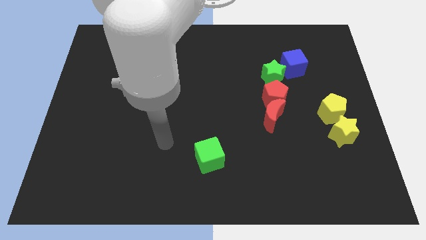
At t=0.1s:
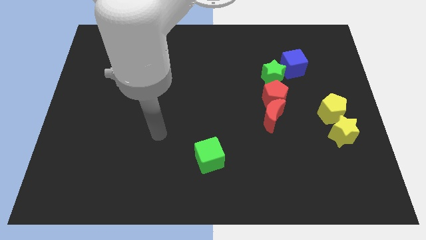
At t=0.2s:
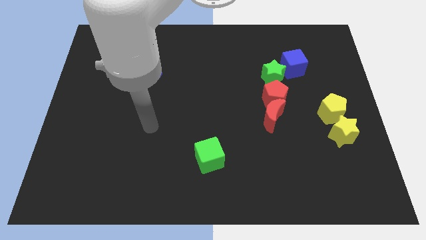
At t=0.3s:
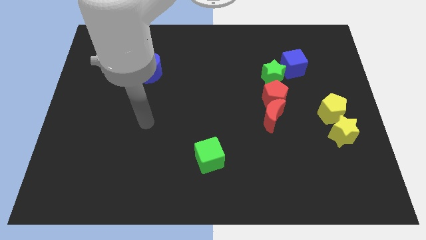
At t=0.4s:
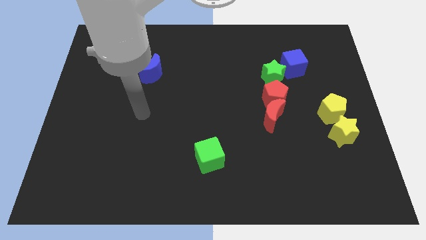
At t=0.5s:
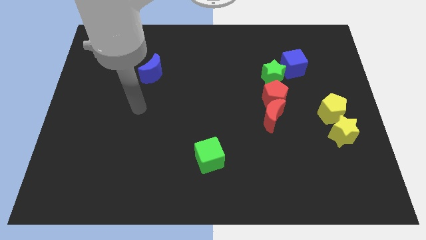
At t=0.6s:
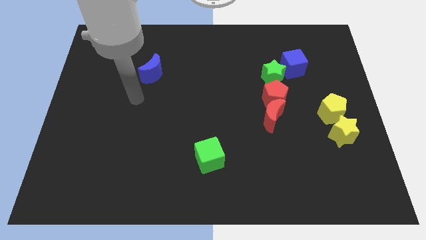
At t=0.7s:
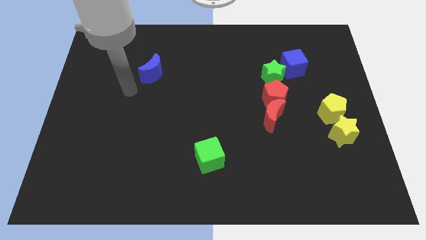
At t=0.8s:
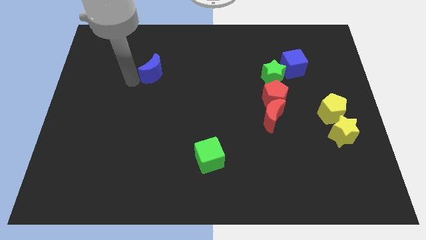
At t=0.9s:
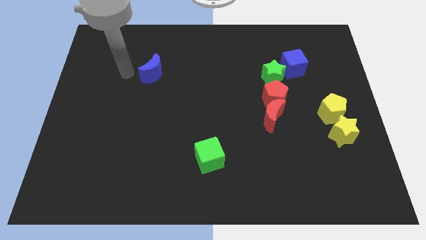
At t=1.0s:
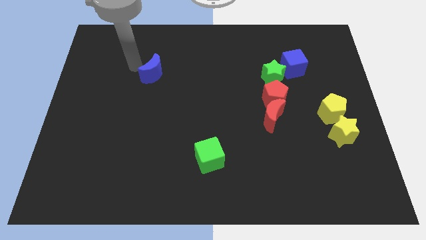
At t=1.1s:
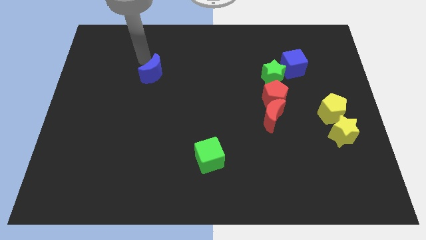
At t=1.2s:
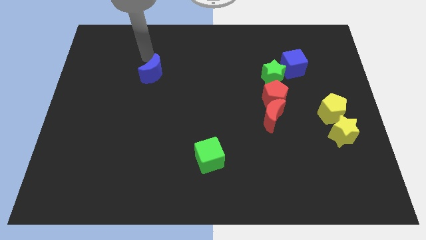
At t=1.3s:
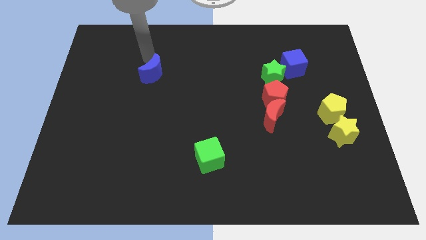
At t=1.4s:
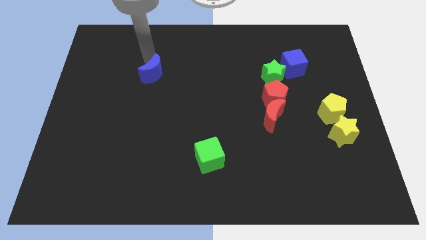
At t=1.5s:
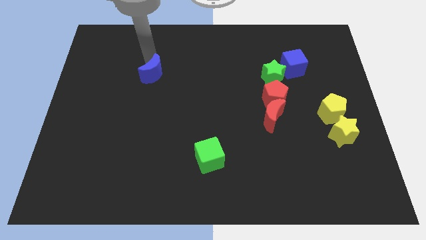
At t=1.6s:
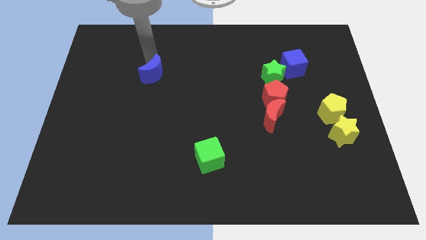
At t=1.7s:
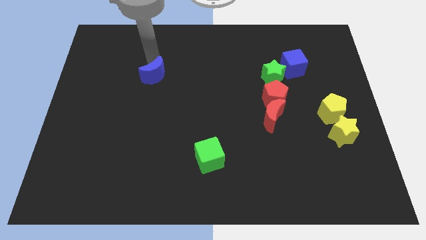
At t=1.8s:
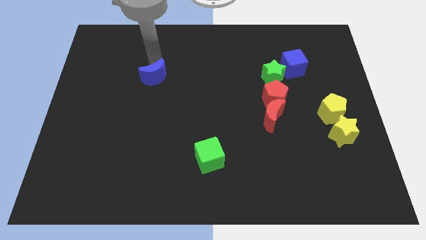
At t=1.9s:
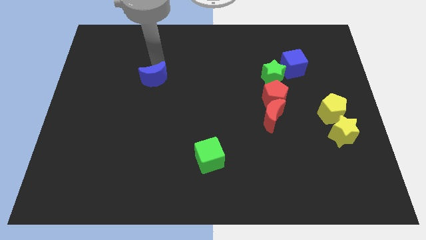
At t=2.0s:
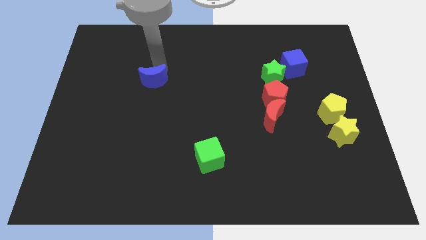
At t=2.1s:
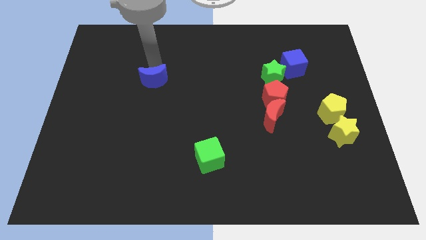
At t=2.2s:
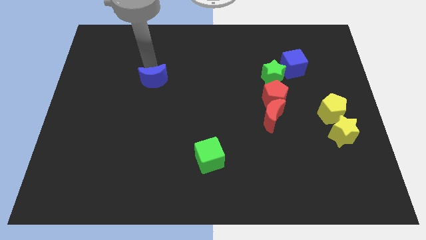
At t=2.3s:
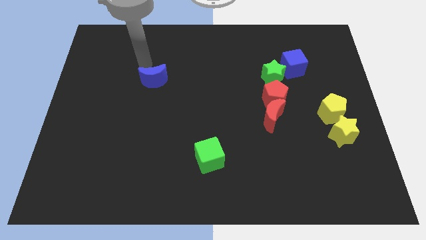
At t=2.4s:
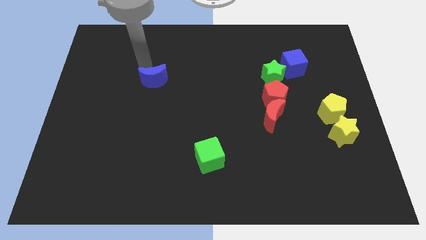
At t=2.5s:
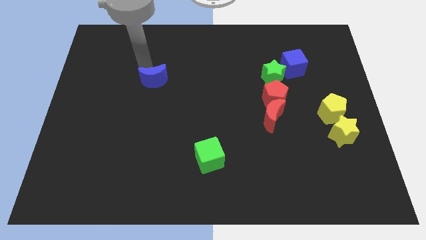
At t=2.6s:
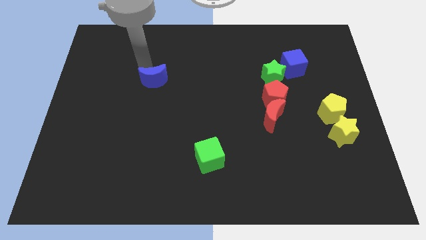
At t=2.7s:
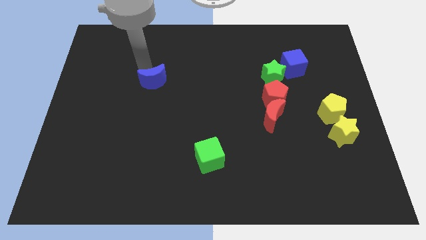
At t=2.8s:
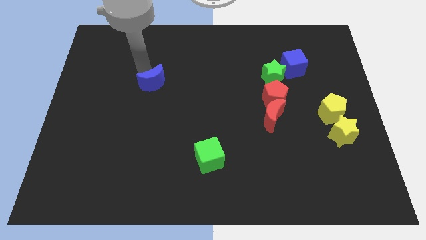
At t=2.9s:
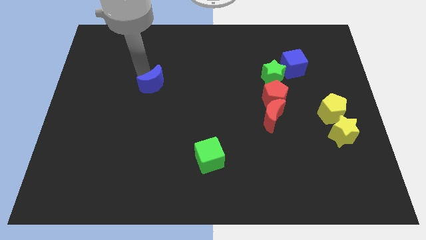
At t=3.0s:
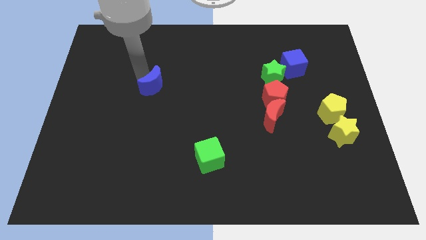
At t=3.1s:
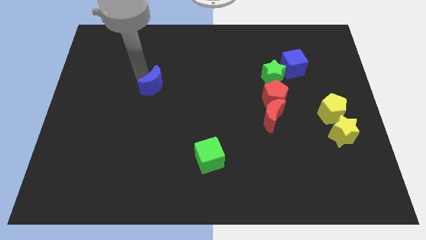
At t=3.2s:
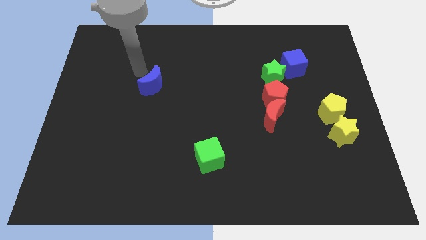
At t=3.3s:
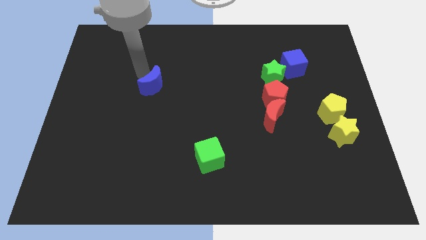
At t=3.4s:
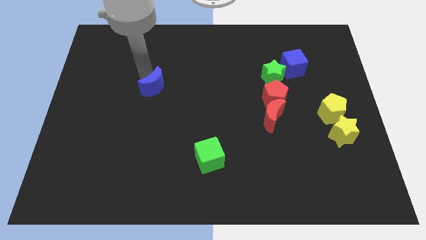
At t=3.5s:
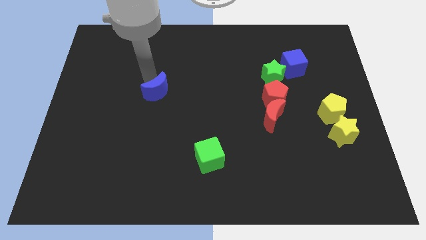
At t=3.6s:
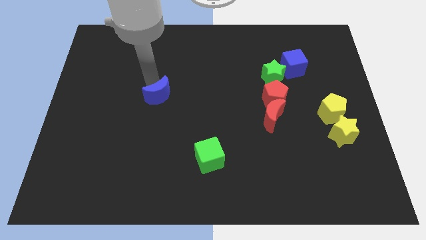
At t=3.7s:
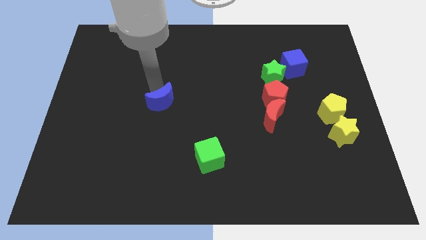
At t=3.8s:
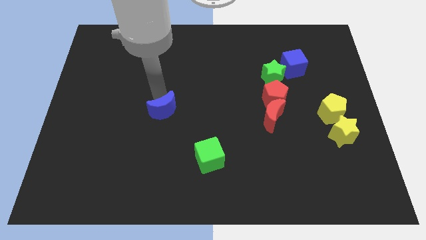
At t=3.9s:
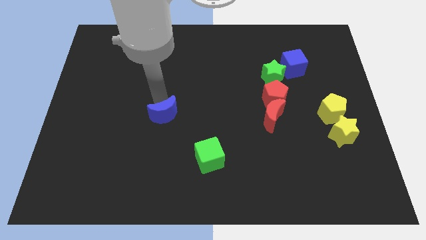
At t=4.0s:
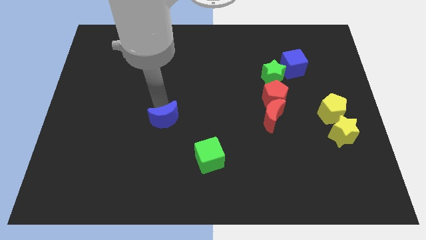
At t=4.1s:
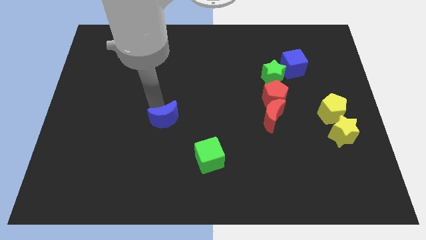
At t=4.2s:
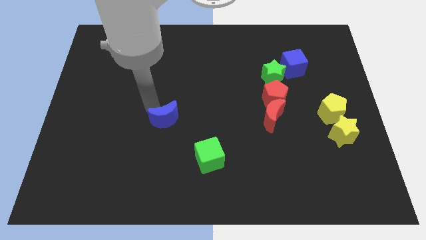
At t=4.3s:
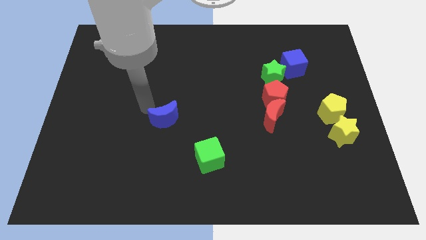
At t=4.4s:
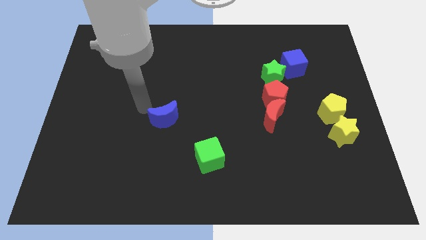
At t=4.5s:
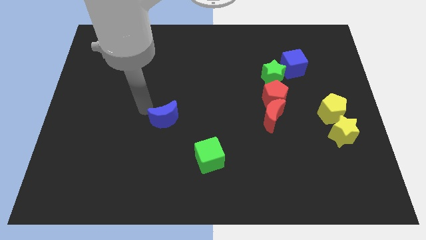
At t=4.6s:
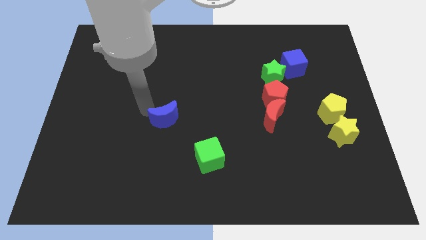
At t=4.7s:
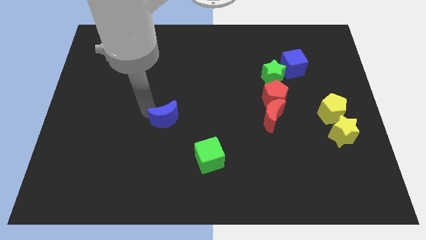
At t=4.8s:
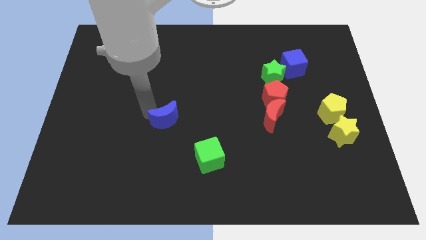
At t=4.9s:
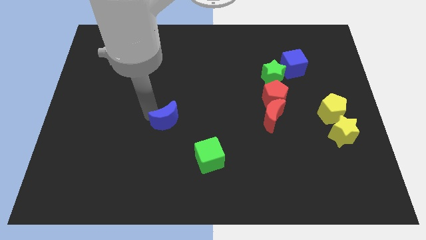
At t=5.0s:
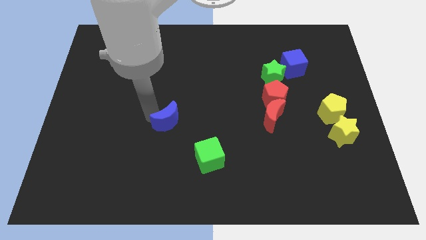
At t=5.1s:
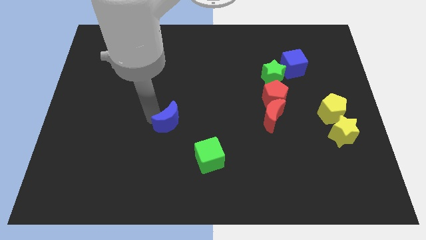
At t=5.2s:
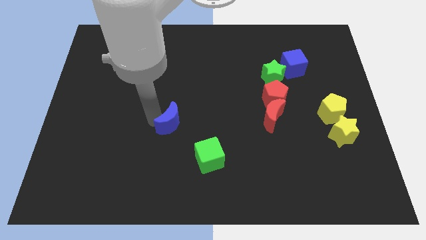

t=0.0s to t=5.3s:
move the blue moon diagonally up and to the left of the green cube

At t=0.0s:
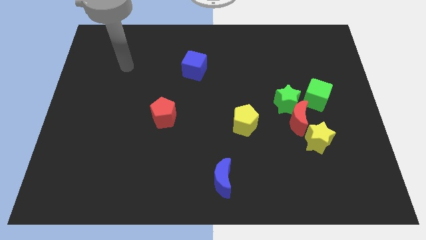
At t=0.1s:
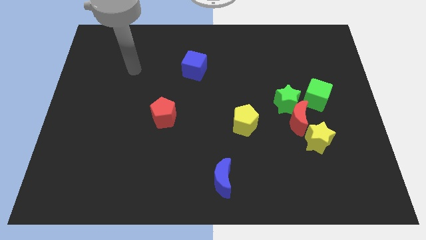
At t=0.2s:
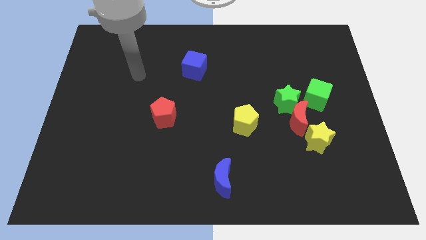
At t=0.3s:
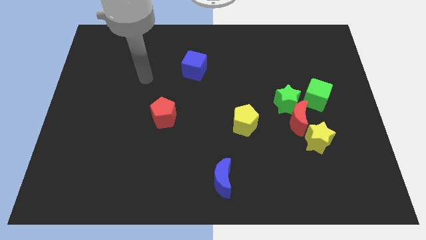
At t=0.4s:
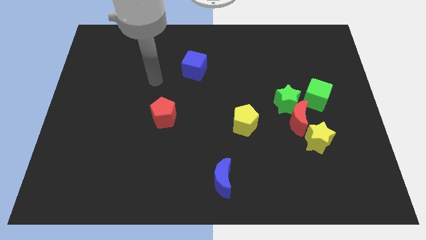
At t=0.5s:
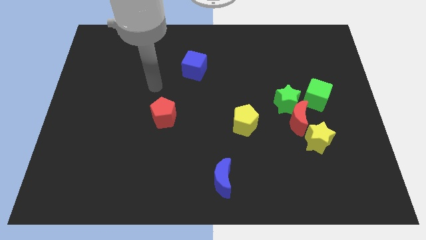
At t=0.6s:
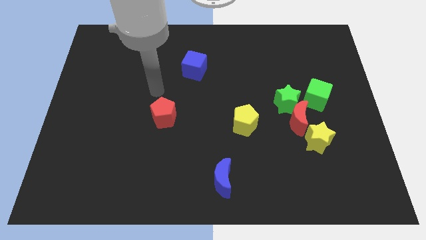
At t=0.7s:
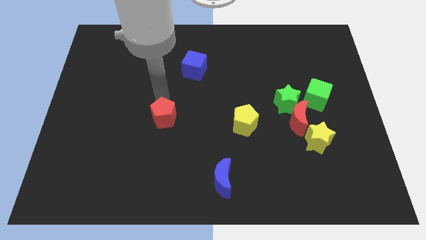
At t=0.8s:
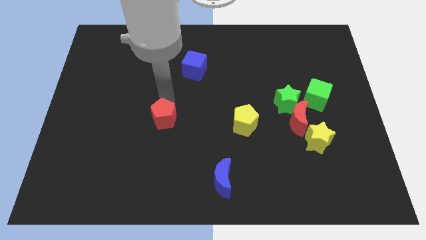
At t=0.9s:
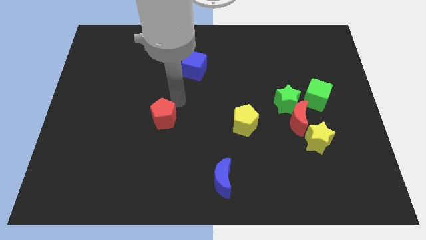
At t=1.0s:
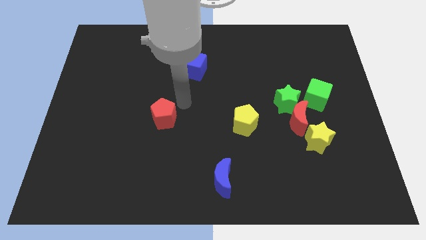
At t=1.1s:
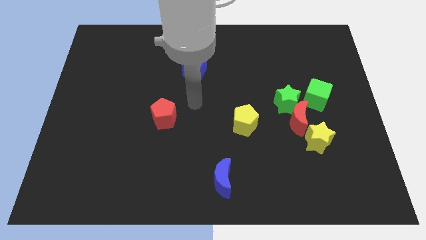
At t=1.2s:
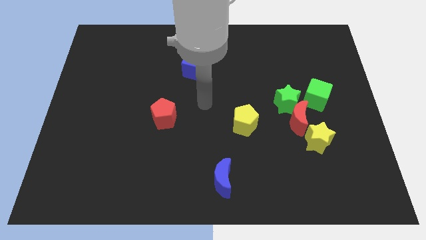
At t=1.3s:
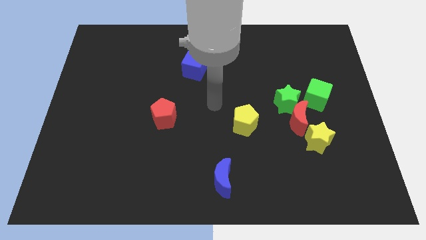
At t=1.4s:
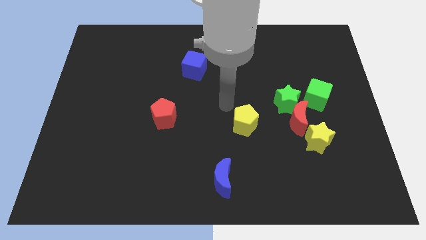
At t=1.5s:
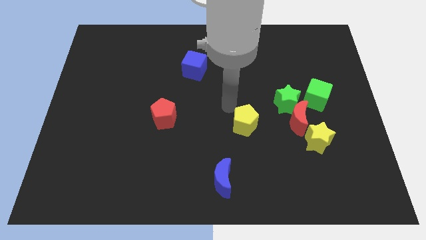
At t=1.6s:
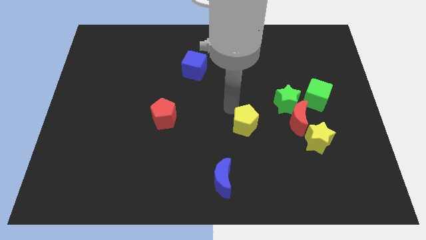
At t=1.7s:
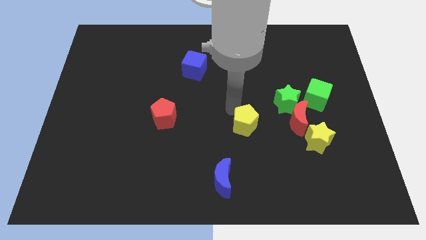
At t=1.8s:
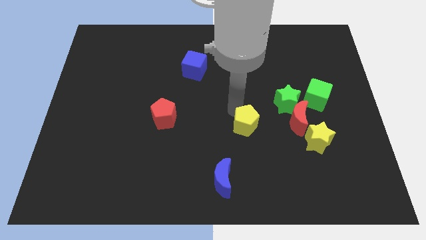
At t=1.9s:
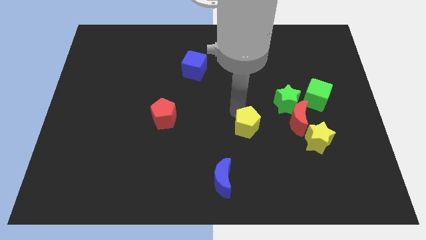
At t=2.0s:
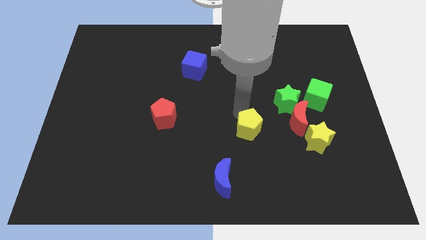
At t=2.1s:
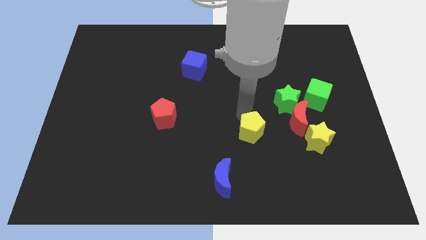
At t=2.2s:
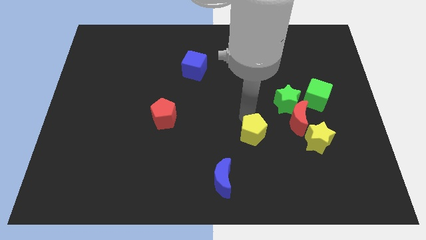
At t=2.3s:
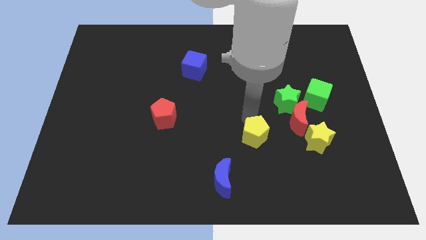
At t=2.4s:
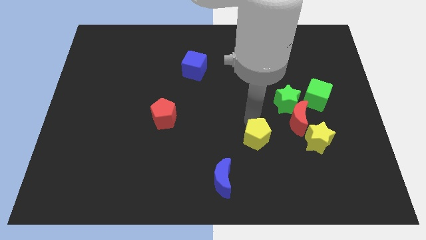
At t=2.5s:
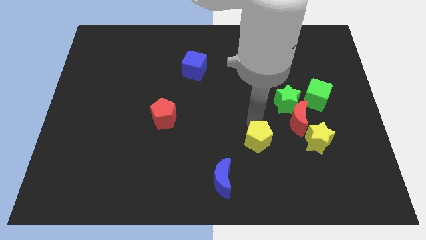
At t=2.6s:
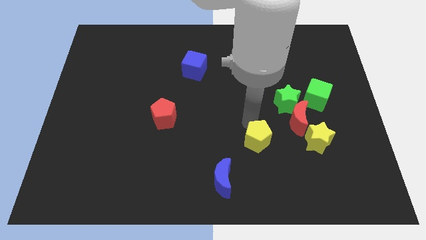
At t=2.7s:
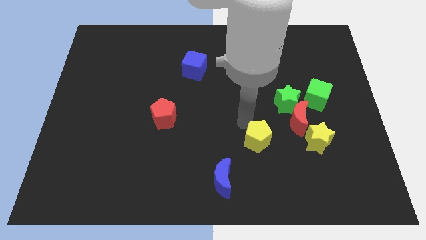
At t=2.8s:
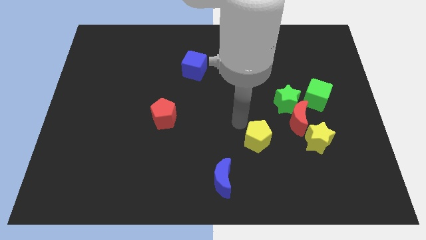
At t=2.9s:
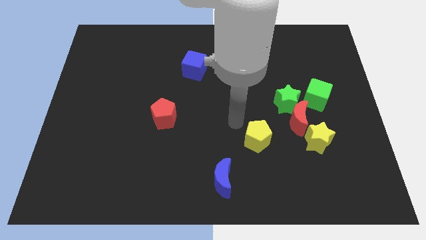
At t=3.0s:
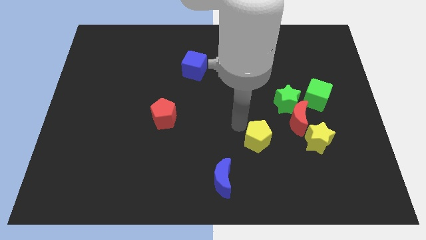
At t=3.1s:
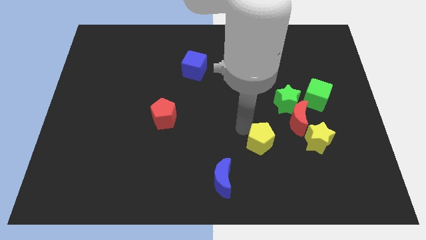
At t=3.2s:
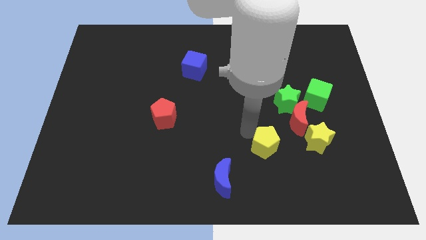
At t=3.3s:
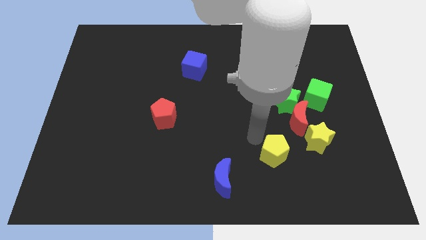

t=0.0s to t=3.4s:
move the yellow pentagon to the bottom left side of the yellow star
